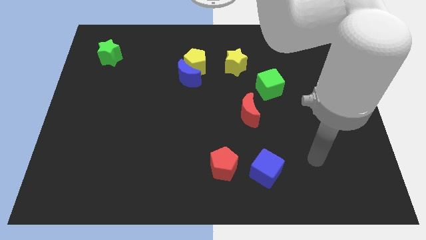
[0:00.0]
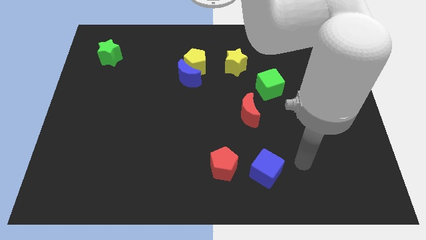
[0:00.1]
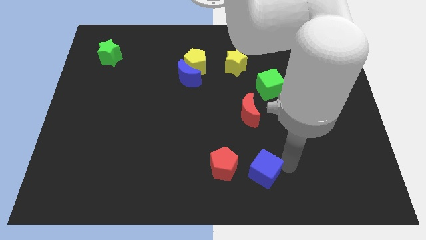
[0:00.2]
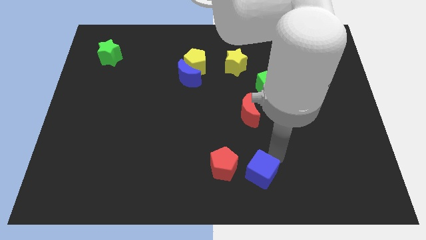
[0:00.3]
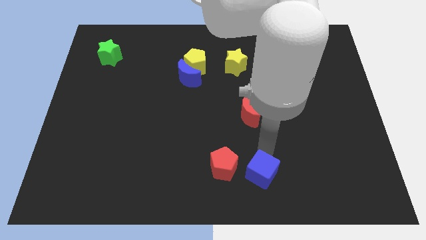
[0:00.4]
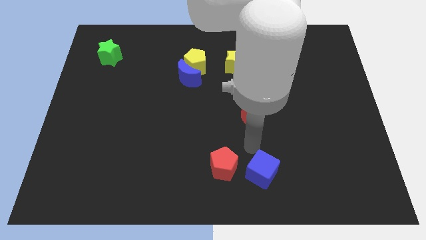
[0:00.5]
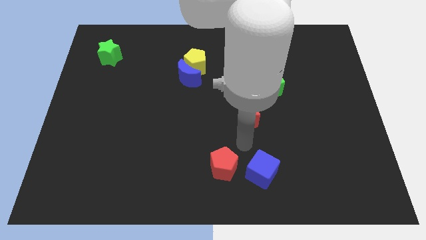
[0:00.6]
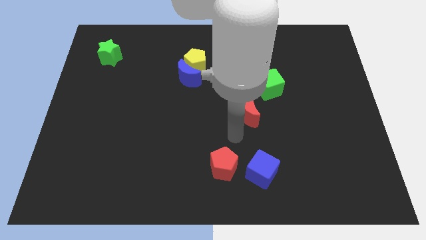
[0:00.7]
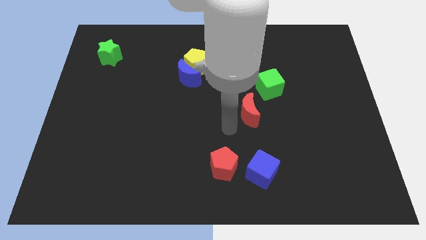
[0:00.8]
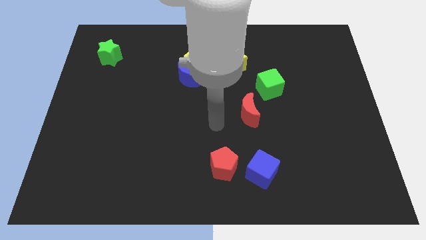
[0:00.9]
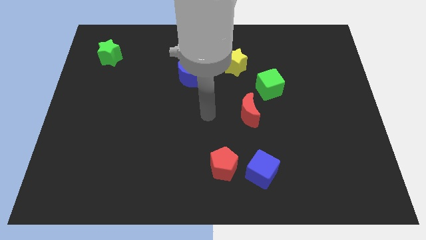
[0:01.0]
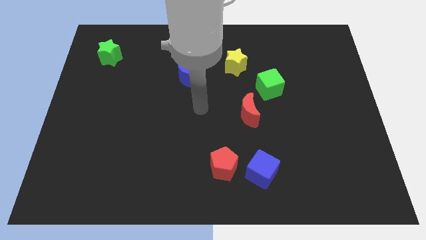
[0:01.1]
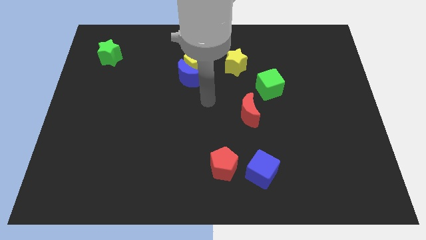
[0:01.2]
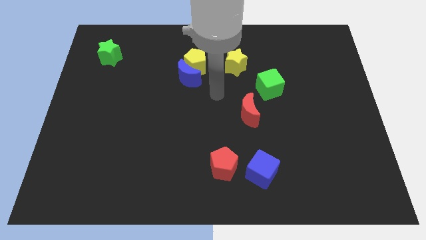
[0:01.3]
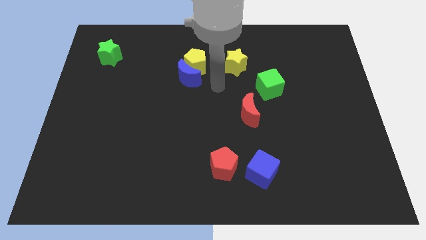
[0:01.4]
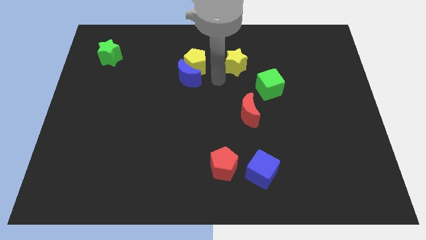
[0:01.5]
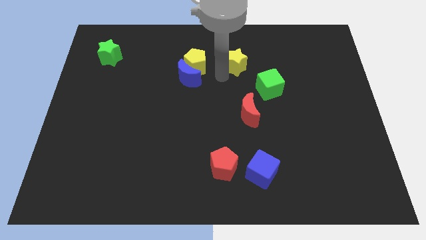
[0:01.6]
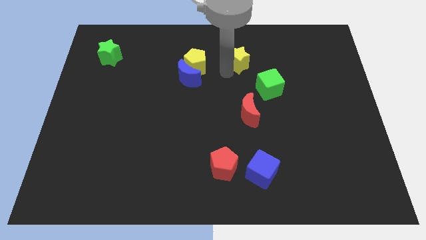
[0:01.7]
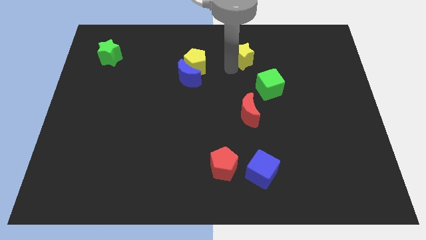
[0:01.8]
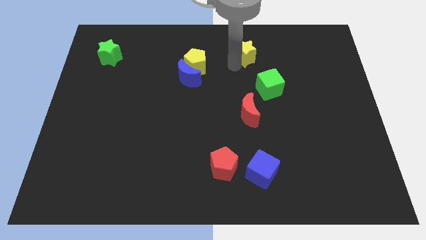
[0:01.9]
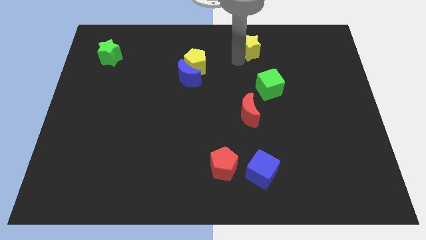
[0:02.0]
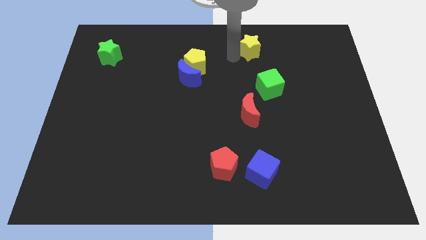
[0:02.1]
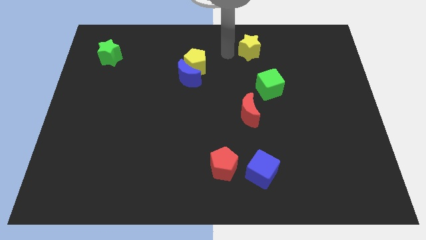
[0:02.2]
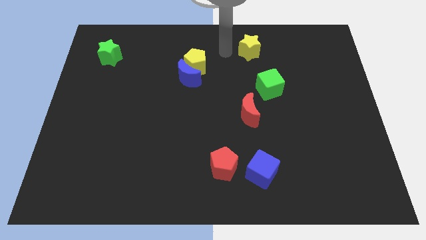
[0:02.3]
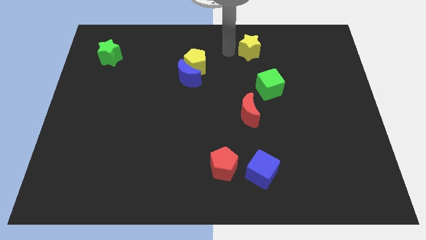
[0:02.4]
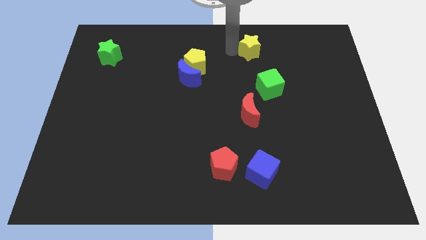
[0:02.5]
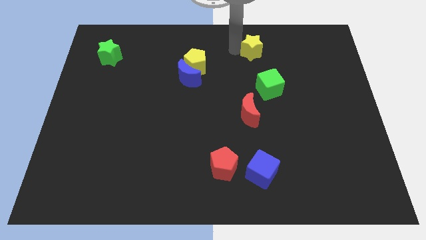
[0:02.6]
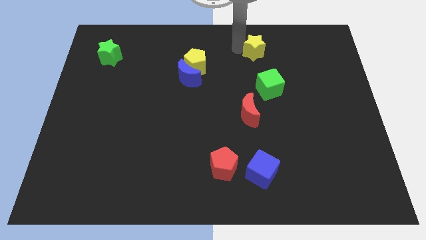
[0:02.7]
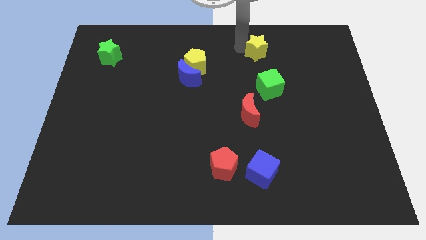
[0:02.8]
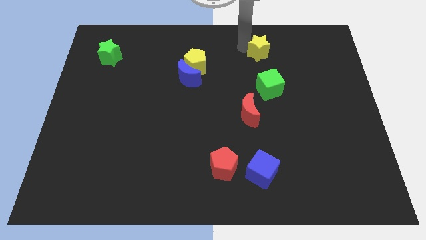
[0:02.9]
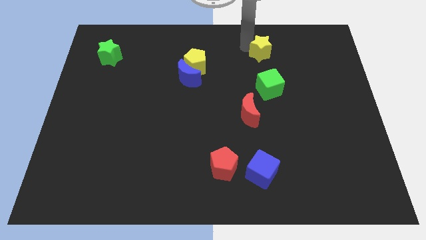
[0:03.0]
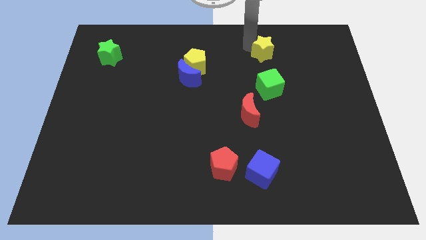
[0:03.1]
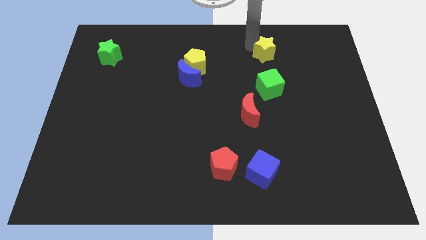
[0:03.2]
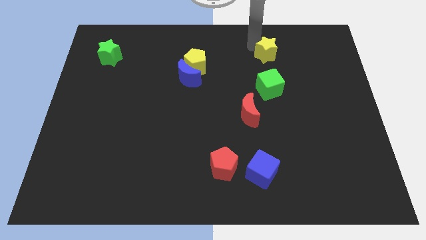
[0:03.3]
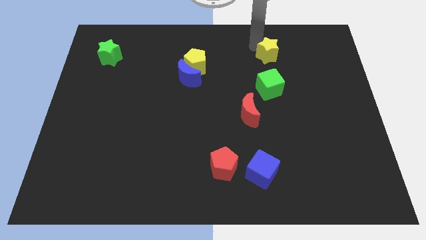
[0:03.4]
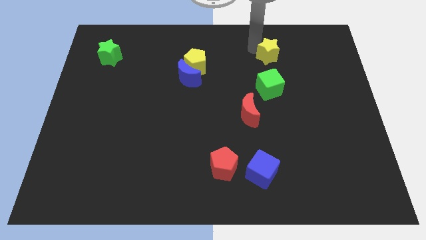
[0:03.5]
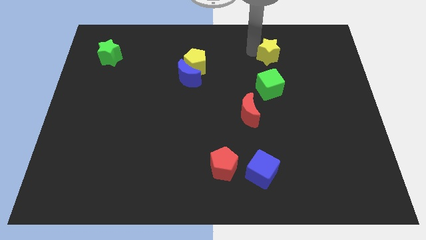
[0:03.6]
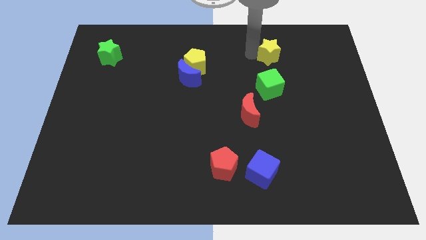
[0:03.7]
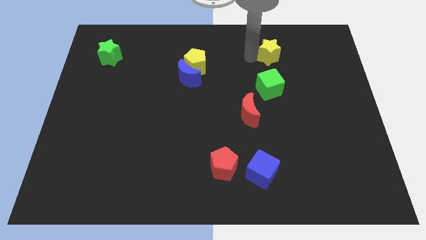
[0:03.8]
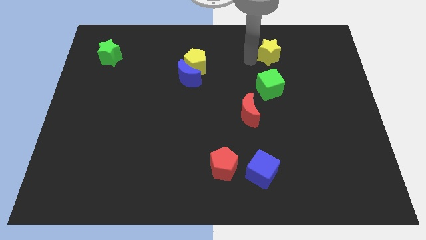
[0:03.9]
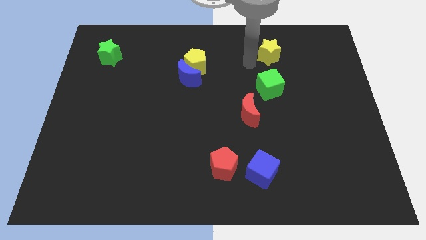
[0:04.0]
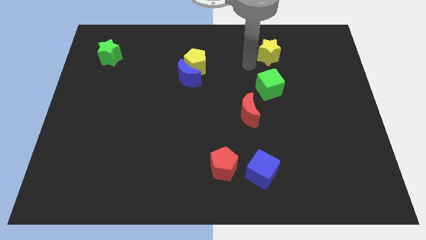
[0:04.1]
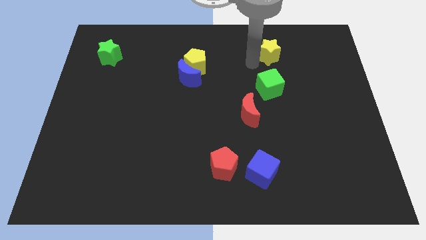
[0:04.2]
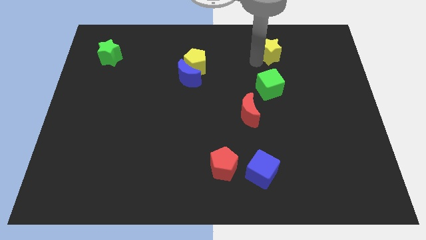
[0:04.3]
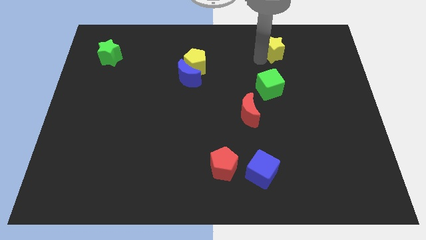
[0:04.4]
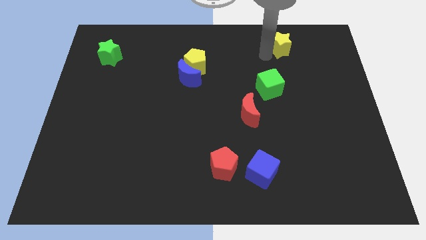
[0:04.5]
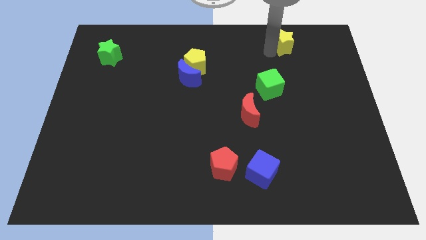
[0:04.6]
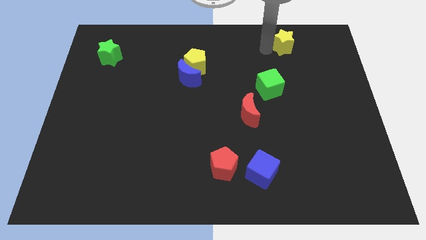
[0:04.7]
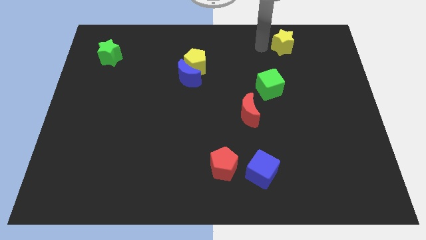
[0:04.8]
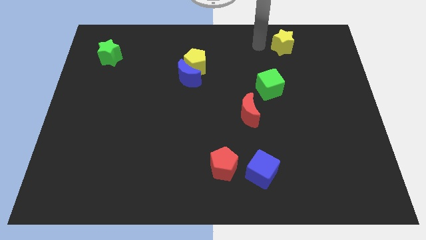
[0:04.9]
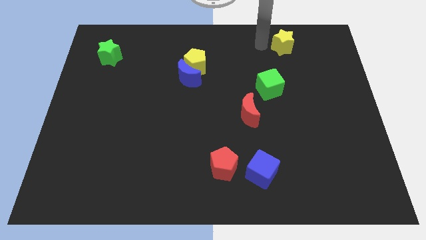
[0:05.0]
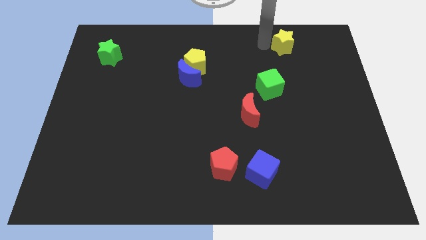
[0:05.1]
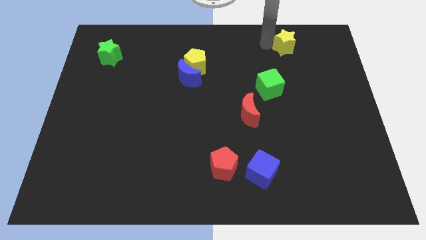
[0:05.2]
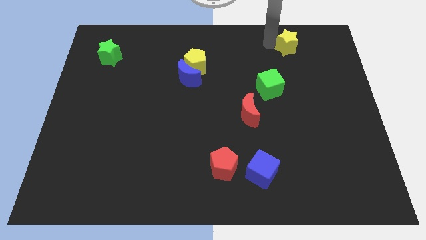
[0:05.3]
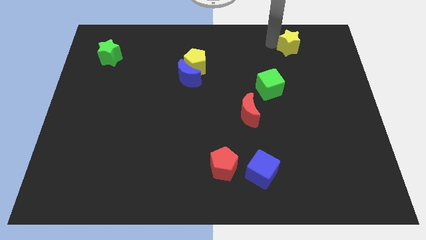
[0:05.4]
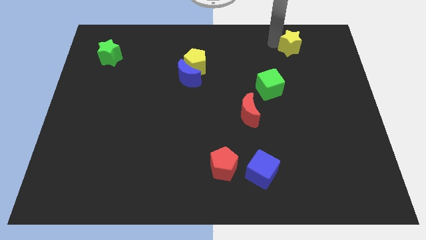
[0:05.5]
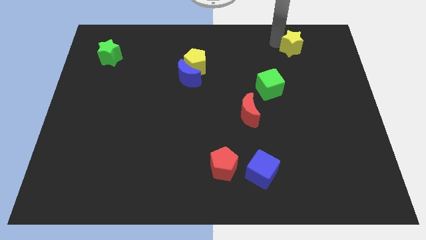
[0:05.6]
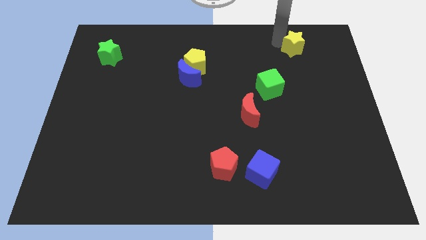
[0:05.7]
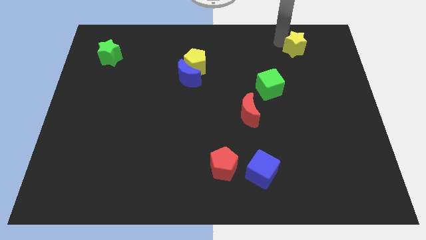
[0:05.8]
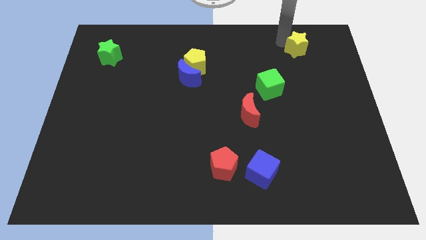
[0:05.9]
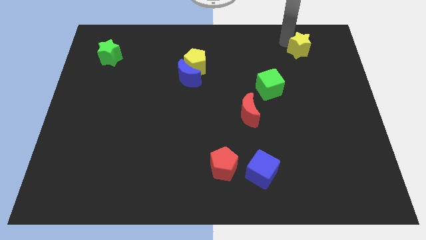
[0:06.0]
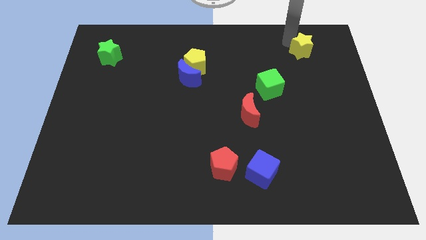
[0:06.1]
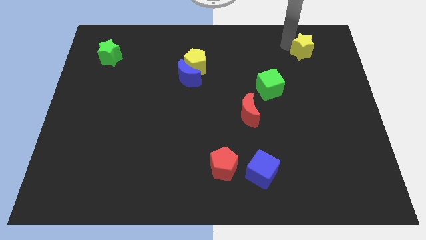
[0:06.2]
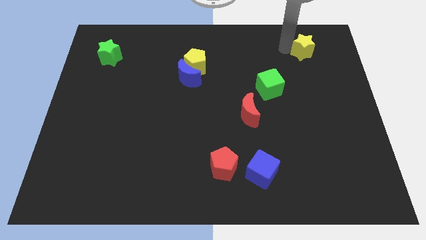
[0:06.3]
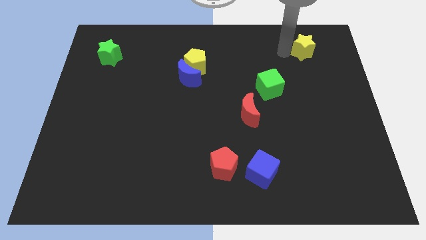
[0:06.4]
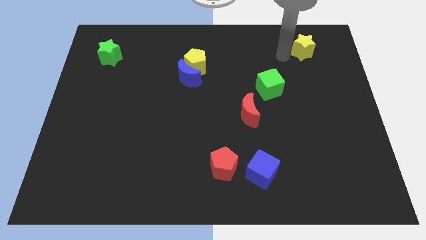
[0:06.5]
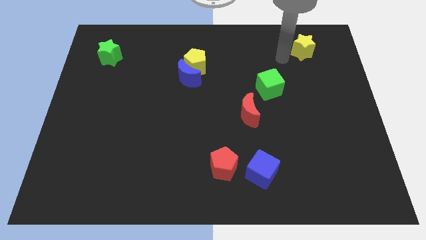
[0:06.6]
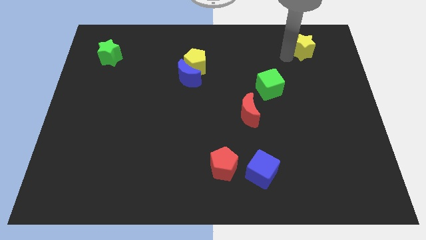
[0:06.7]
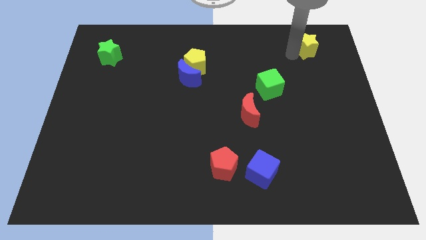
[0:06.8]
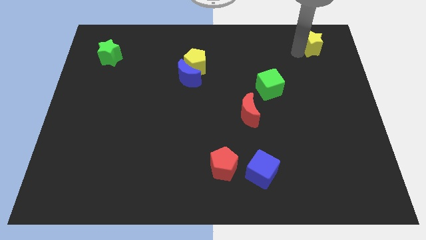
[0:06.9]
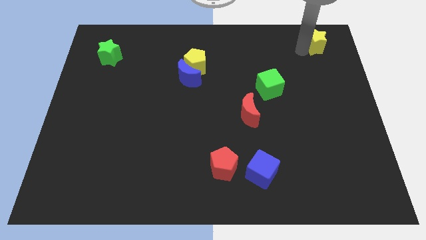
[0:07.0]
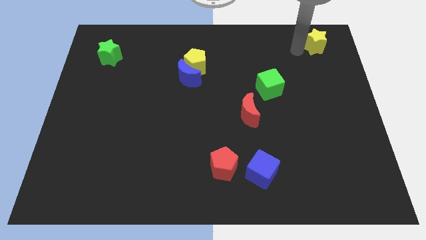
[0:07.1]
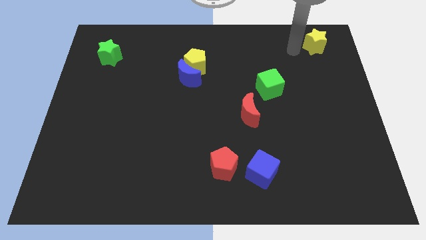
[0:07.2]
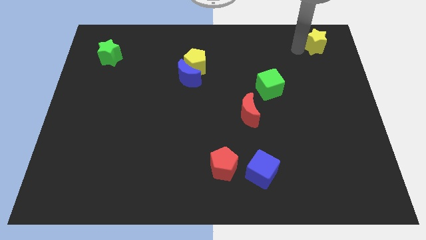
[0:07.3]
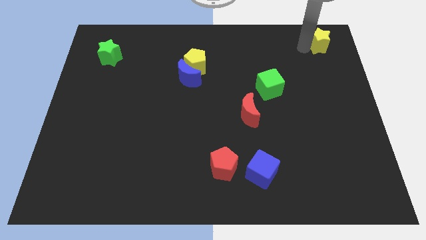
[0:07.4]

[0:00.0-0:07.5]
slide the yellow star to the top right
